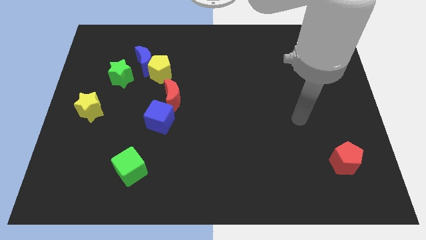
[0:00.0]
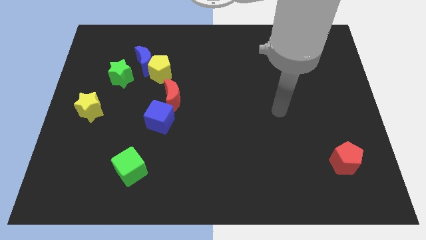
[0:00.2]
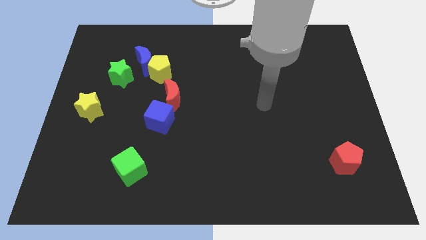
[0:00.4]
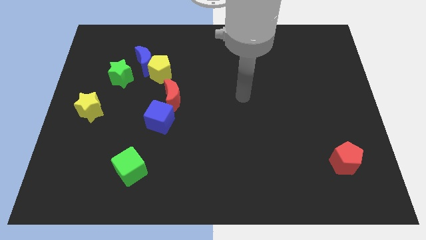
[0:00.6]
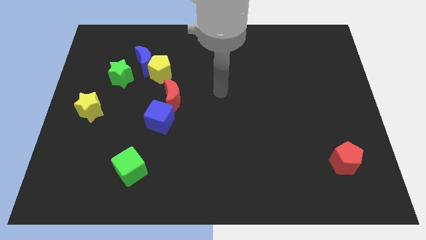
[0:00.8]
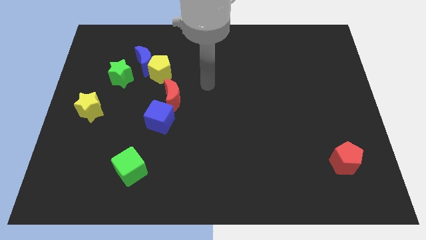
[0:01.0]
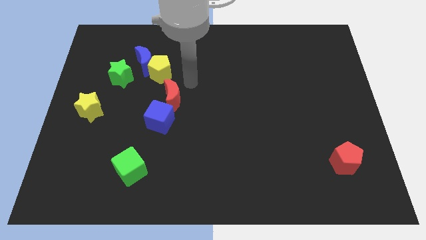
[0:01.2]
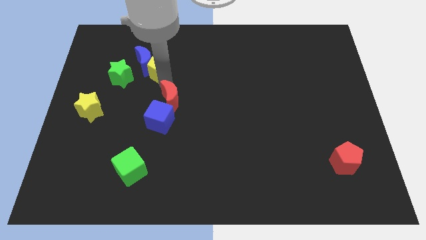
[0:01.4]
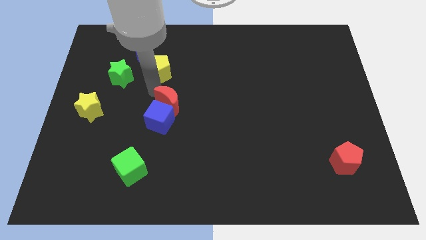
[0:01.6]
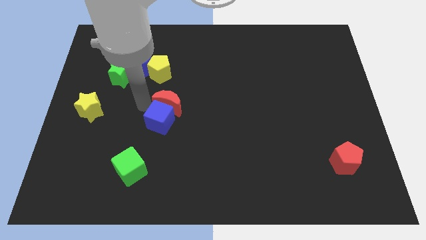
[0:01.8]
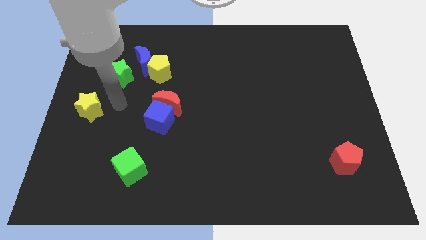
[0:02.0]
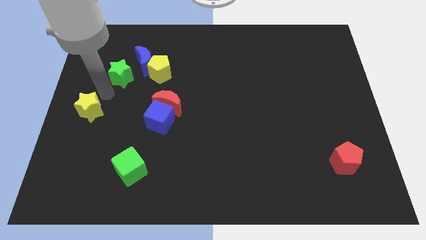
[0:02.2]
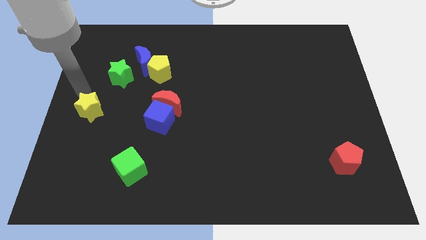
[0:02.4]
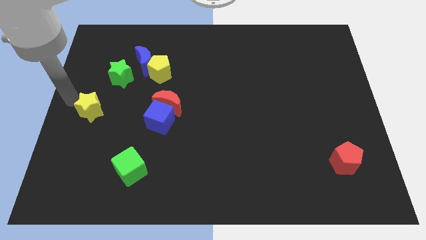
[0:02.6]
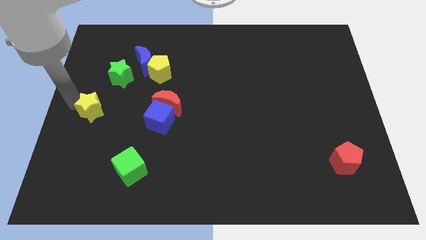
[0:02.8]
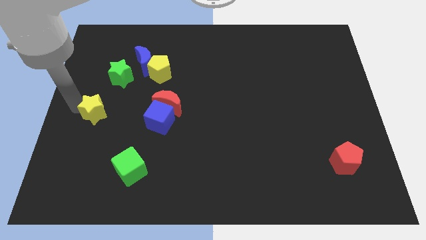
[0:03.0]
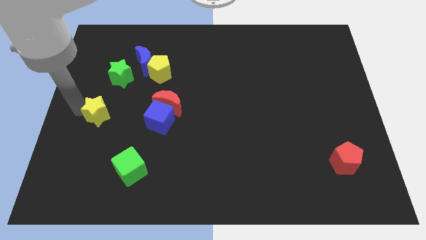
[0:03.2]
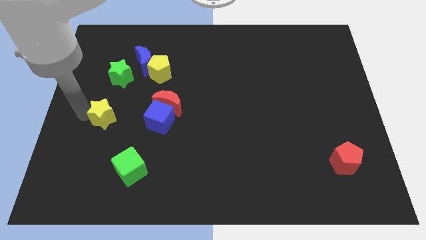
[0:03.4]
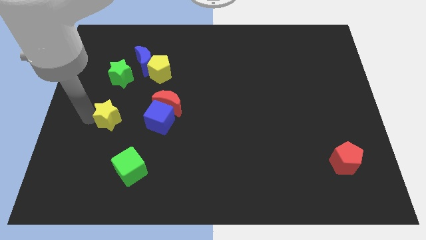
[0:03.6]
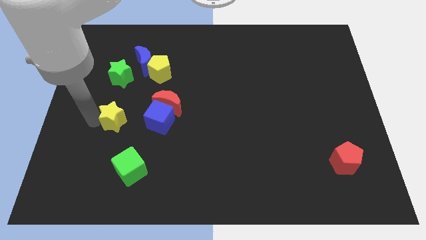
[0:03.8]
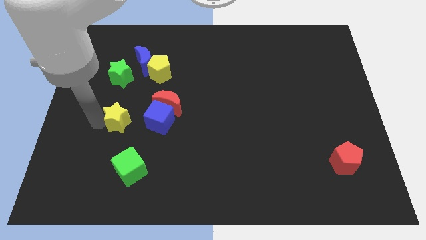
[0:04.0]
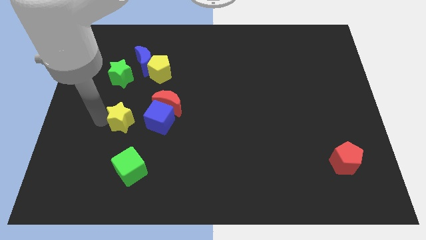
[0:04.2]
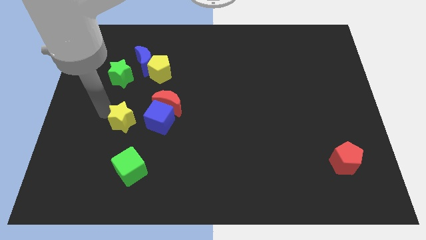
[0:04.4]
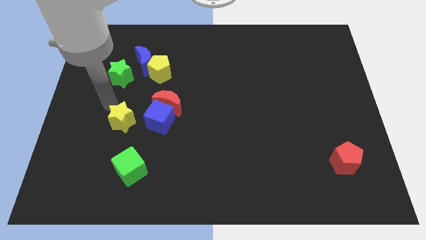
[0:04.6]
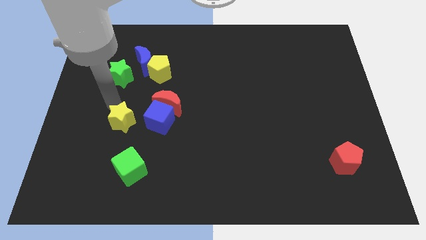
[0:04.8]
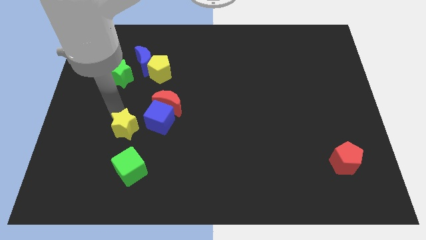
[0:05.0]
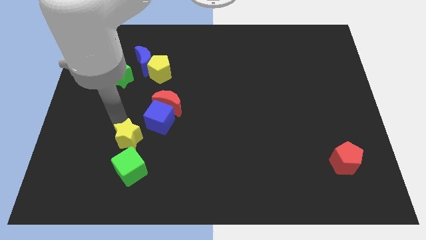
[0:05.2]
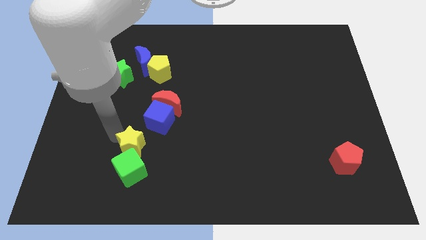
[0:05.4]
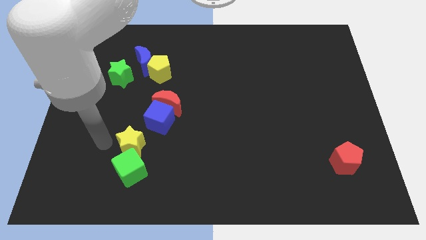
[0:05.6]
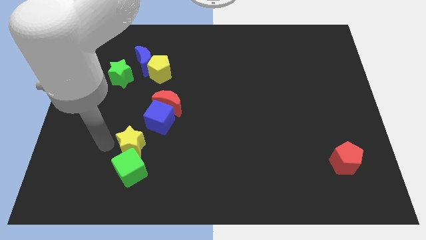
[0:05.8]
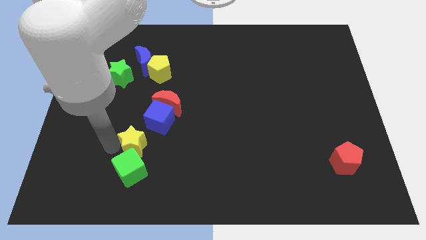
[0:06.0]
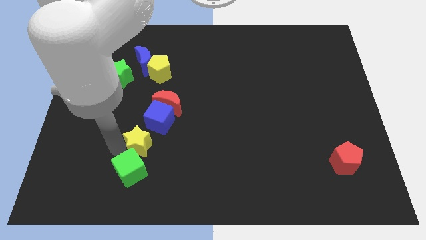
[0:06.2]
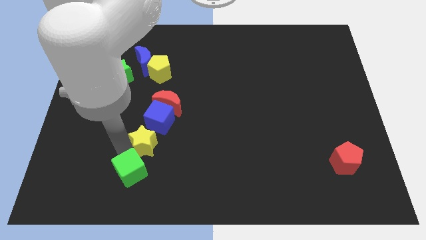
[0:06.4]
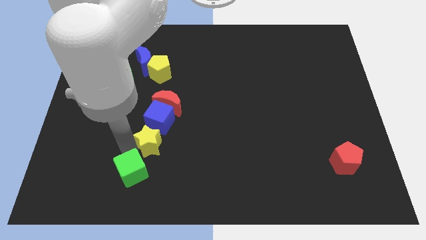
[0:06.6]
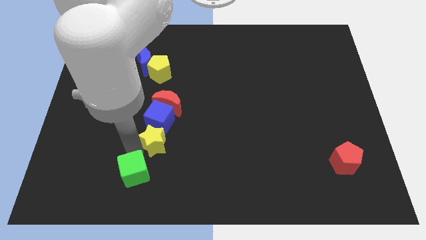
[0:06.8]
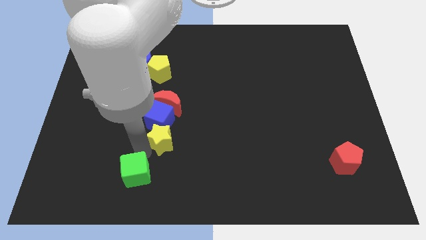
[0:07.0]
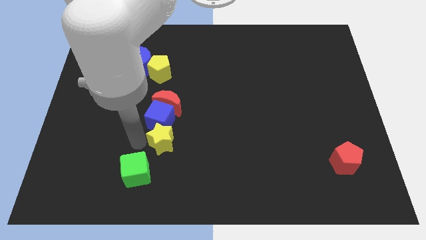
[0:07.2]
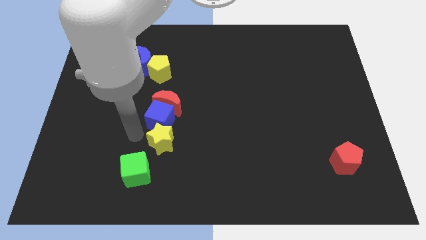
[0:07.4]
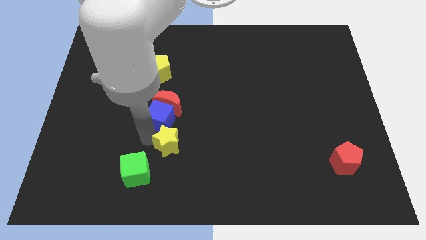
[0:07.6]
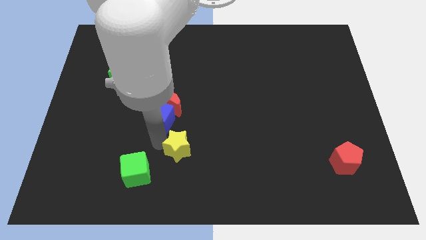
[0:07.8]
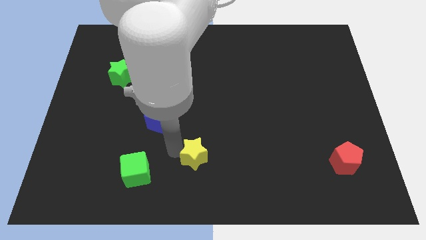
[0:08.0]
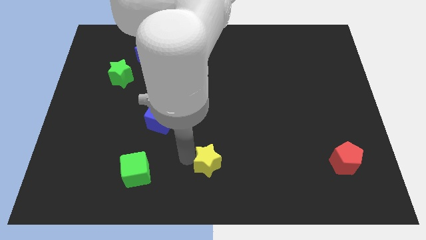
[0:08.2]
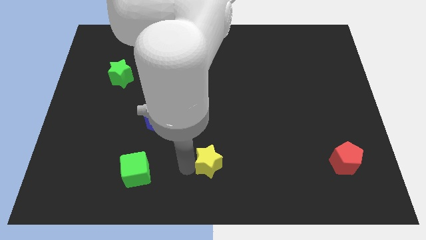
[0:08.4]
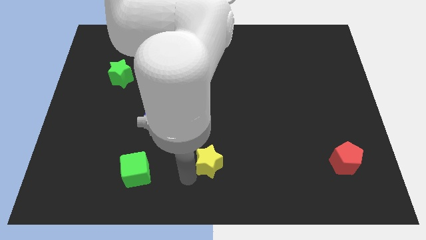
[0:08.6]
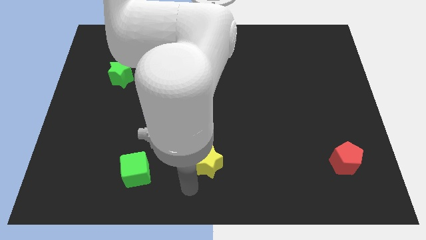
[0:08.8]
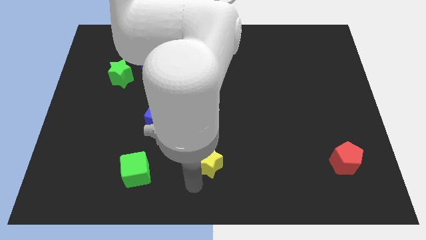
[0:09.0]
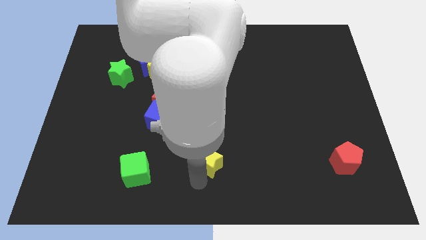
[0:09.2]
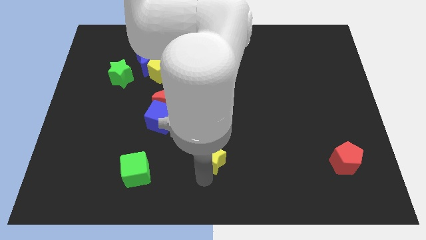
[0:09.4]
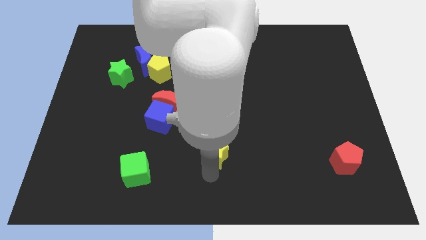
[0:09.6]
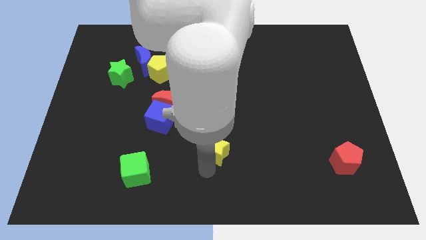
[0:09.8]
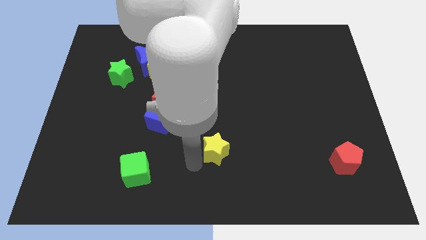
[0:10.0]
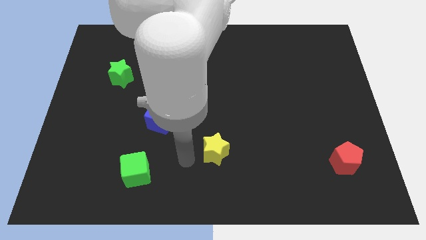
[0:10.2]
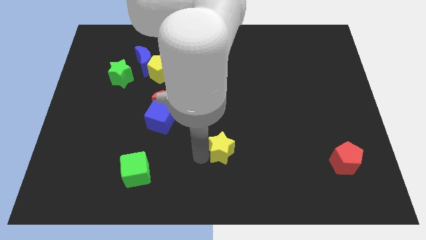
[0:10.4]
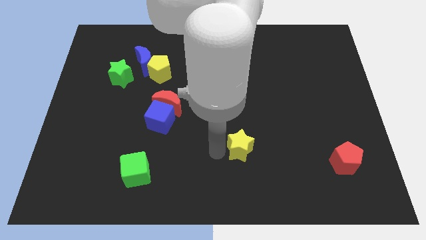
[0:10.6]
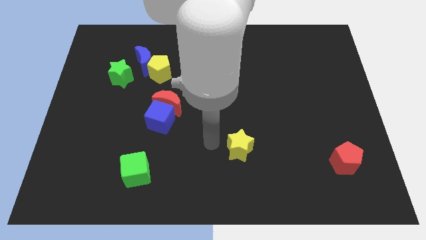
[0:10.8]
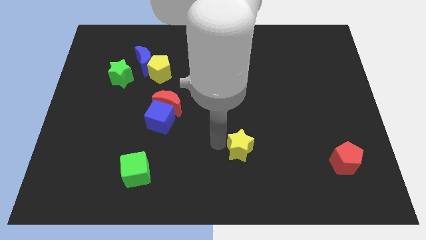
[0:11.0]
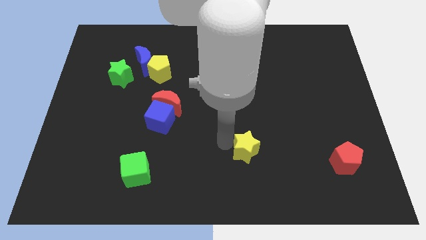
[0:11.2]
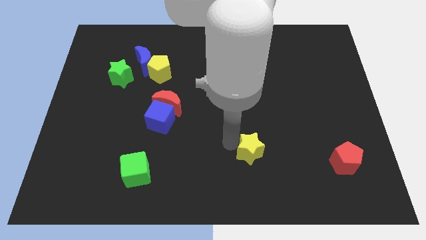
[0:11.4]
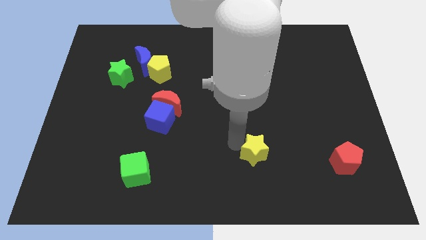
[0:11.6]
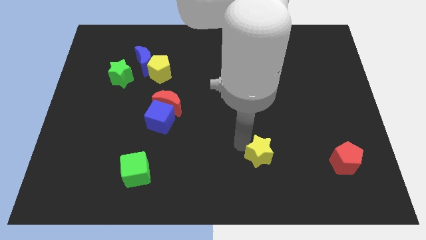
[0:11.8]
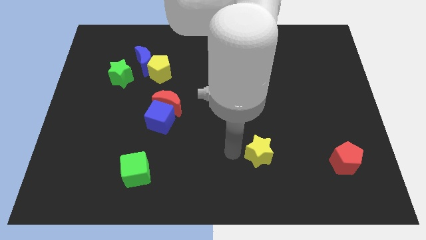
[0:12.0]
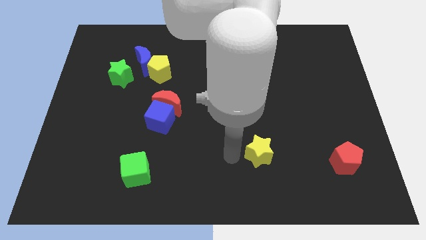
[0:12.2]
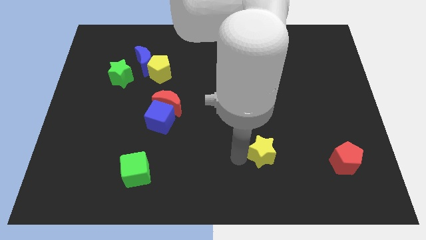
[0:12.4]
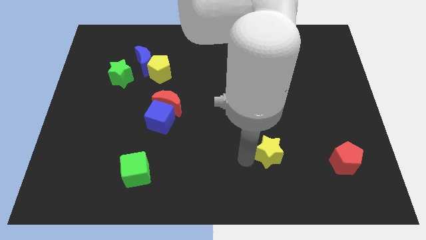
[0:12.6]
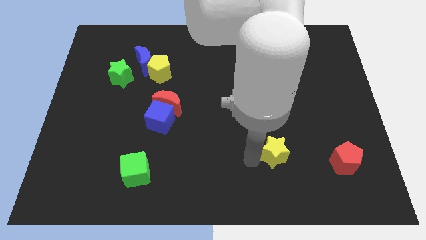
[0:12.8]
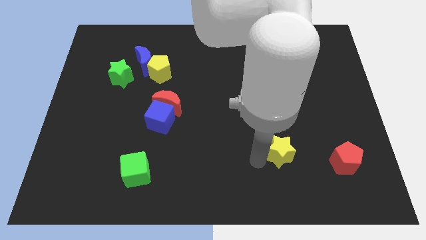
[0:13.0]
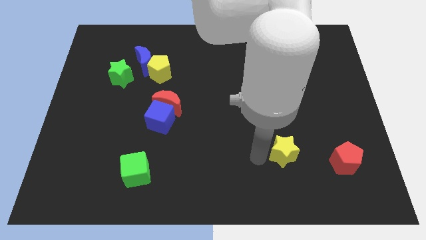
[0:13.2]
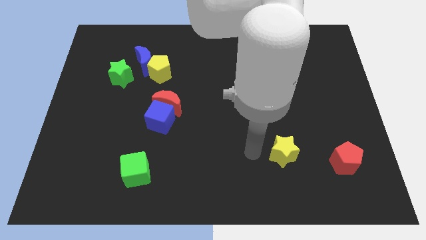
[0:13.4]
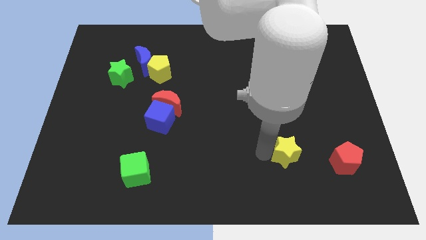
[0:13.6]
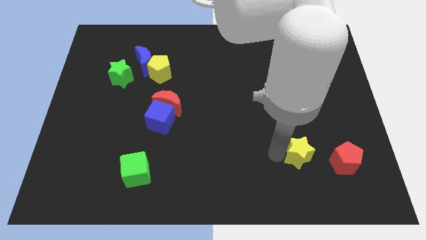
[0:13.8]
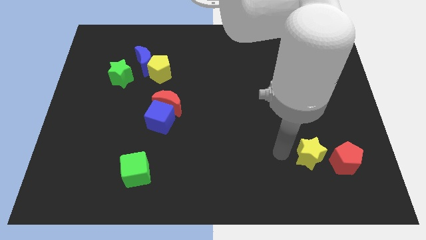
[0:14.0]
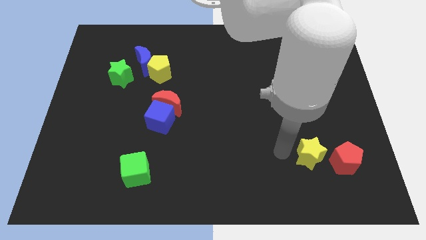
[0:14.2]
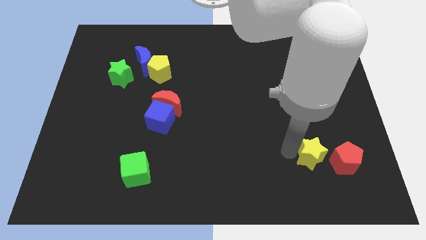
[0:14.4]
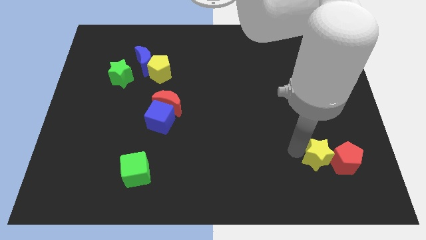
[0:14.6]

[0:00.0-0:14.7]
move the yellow star to the red pentagon
